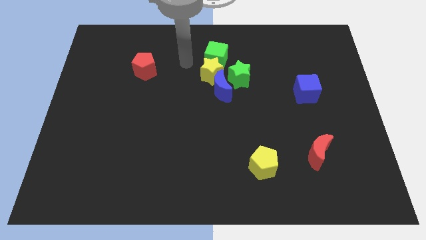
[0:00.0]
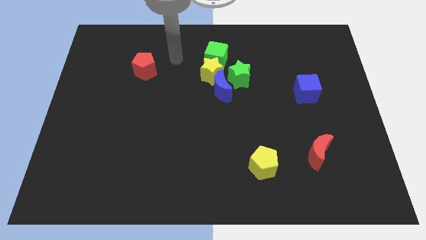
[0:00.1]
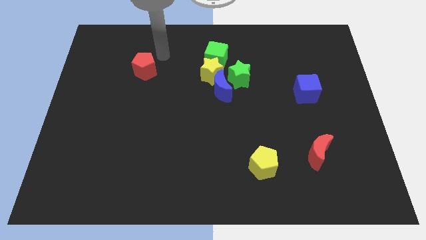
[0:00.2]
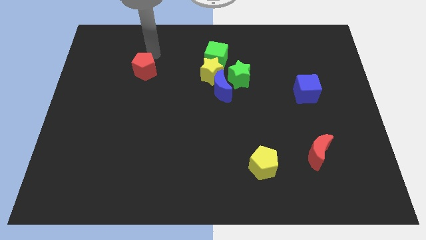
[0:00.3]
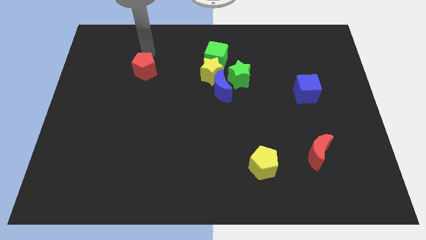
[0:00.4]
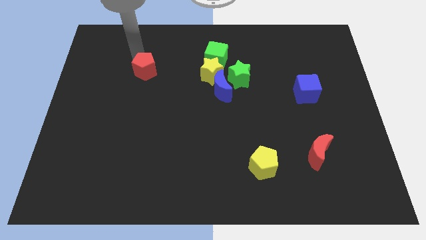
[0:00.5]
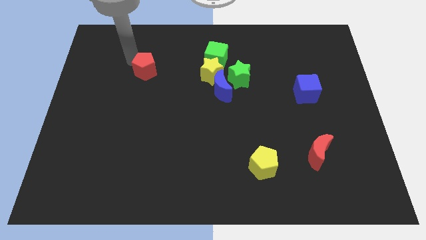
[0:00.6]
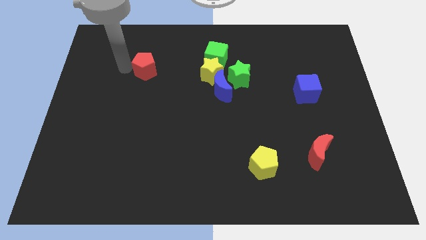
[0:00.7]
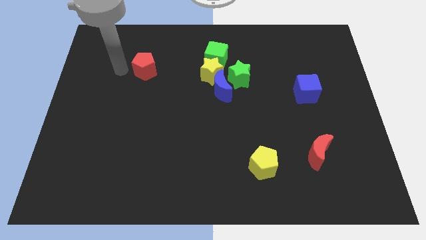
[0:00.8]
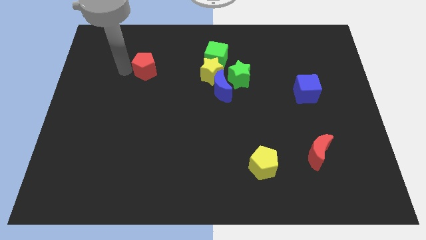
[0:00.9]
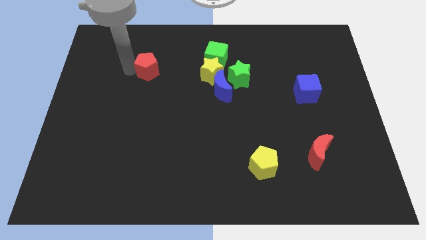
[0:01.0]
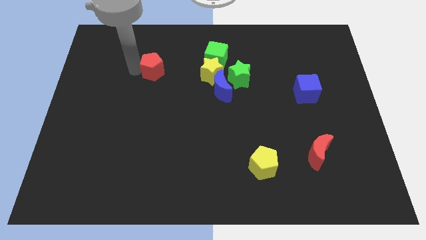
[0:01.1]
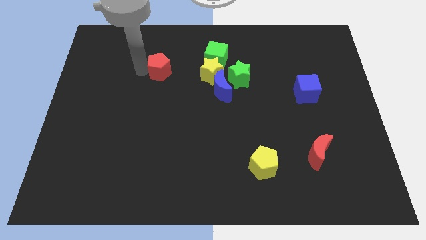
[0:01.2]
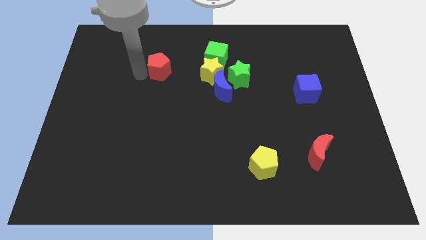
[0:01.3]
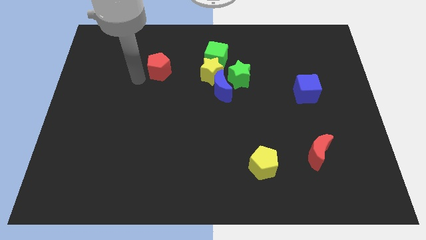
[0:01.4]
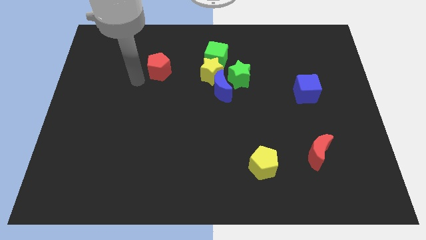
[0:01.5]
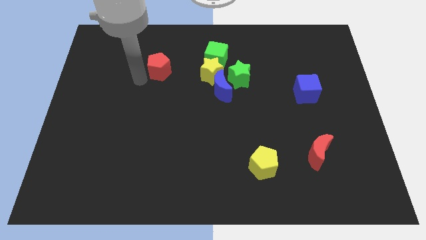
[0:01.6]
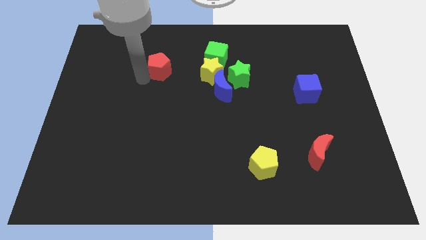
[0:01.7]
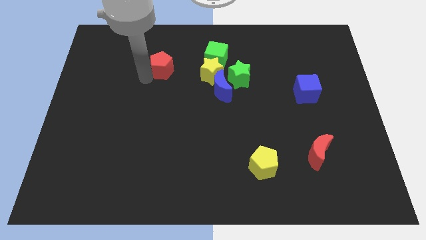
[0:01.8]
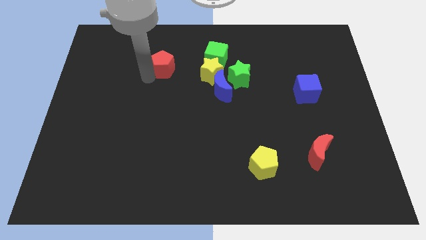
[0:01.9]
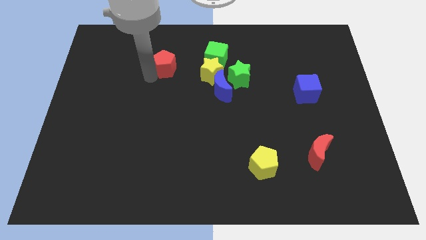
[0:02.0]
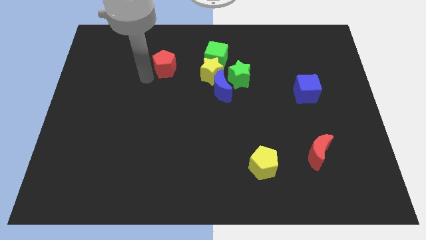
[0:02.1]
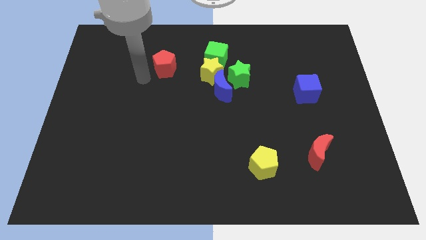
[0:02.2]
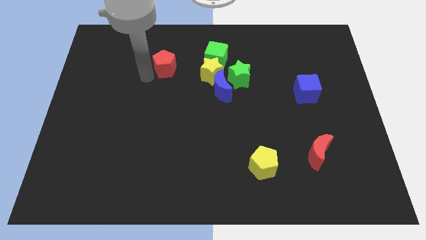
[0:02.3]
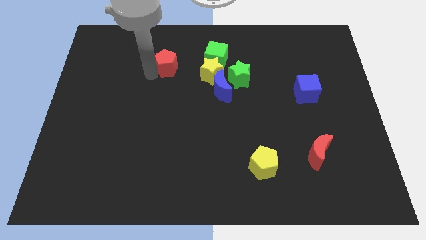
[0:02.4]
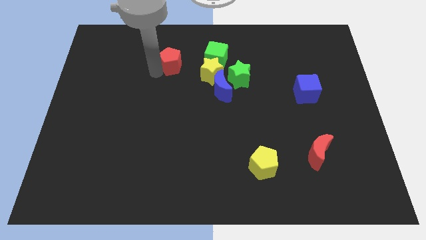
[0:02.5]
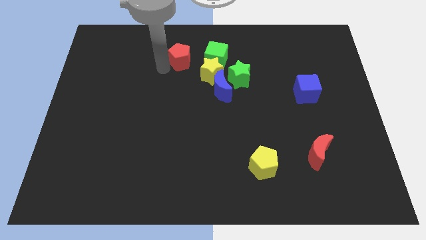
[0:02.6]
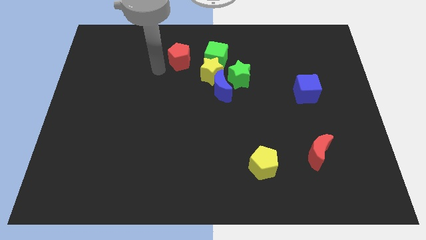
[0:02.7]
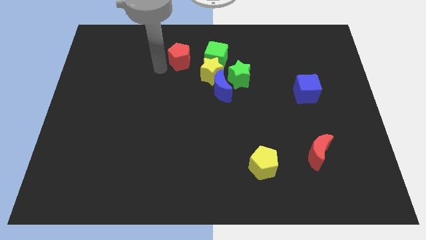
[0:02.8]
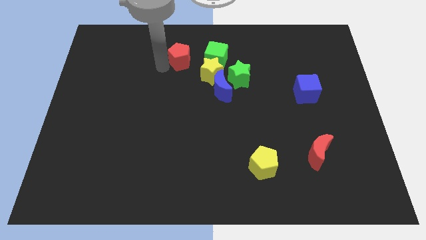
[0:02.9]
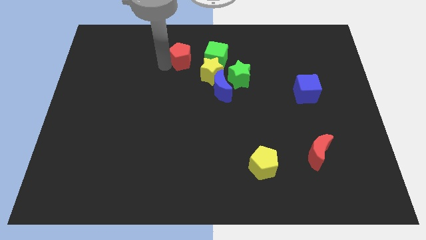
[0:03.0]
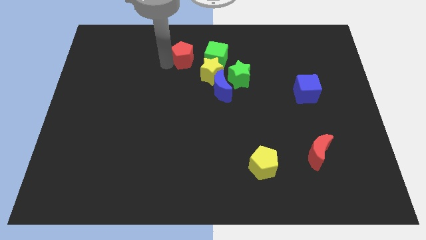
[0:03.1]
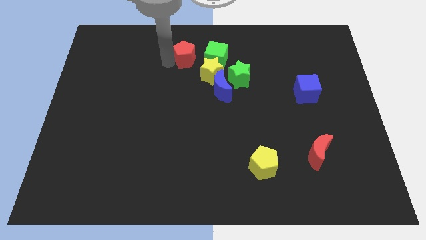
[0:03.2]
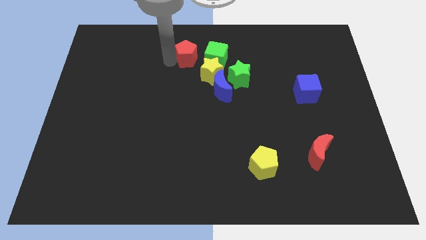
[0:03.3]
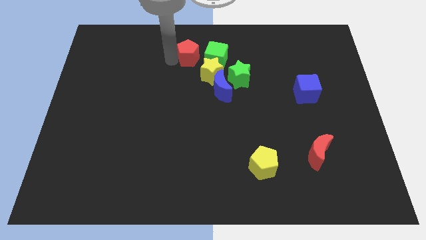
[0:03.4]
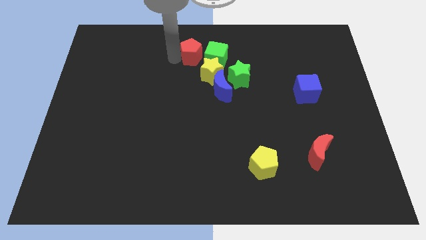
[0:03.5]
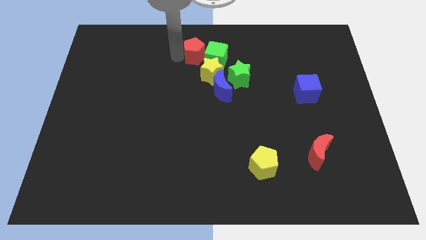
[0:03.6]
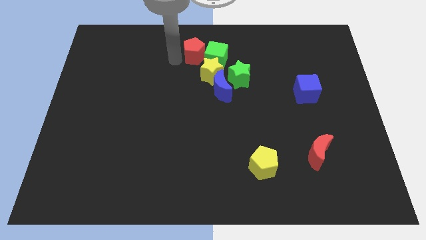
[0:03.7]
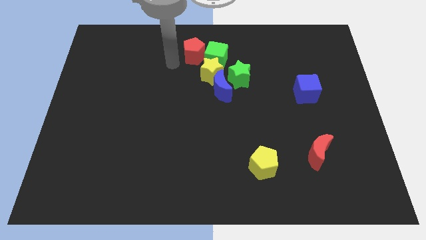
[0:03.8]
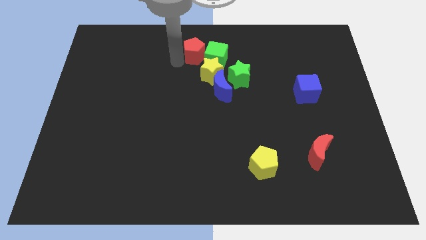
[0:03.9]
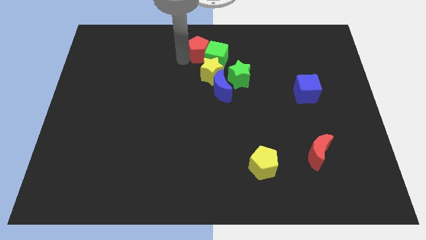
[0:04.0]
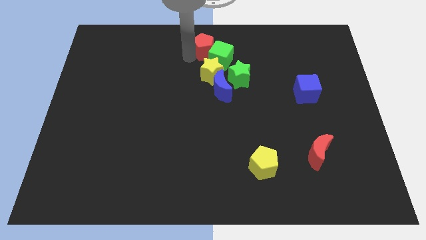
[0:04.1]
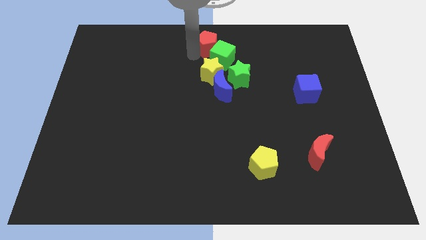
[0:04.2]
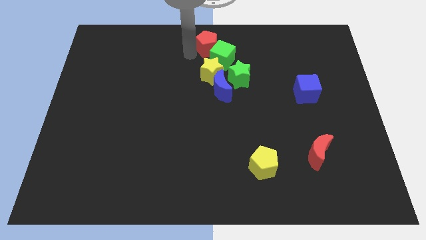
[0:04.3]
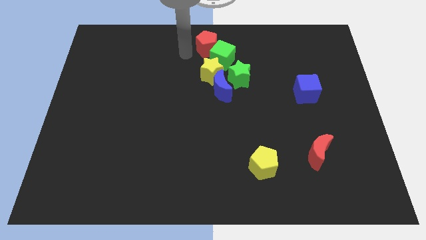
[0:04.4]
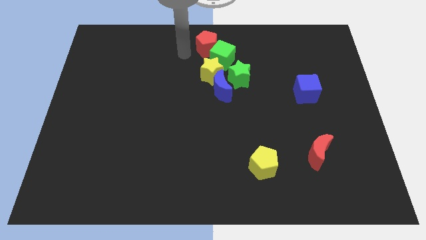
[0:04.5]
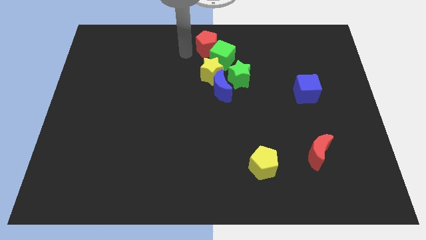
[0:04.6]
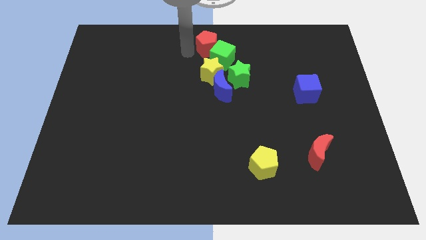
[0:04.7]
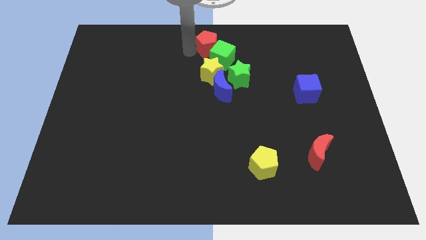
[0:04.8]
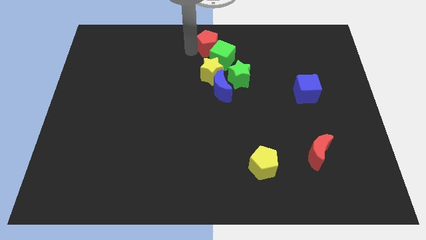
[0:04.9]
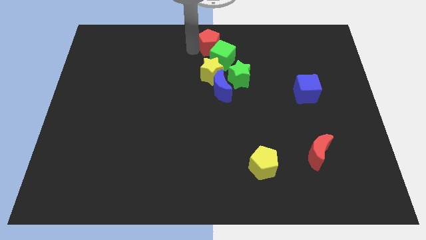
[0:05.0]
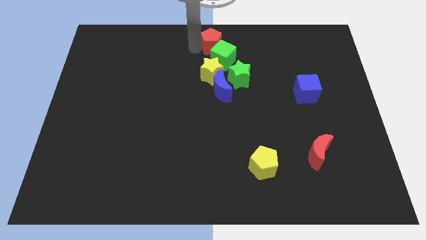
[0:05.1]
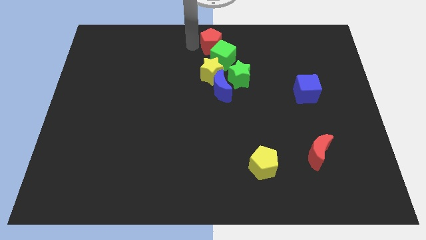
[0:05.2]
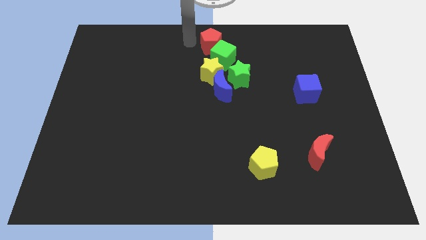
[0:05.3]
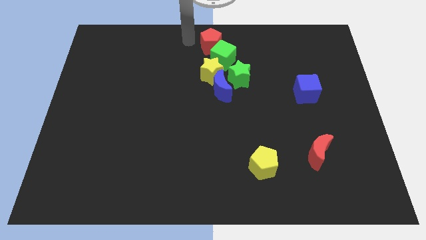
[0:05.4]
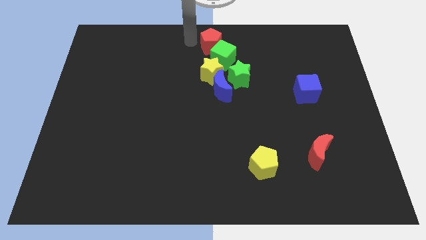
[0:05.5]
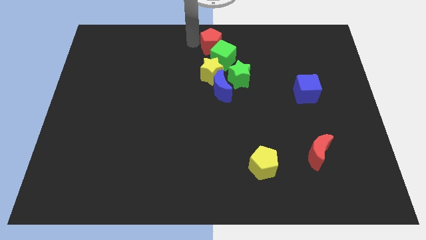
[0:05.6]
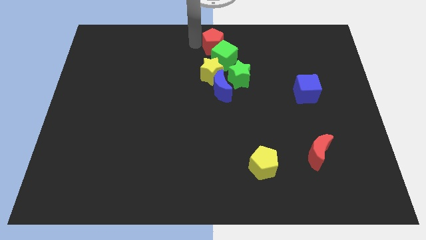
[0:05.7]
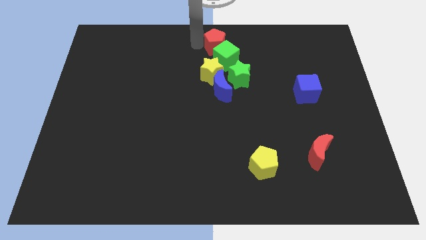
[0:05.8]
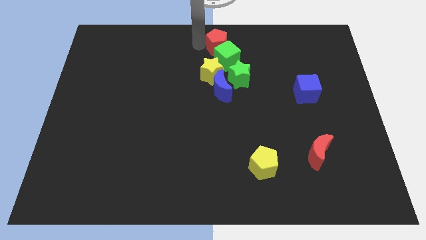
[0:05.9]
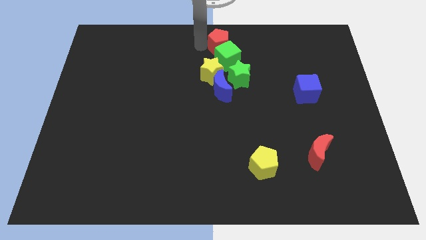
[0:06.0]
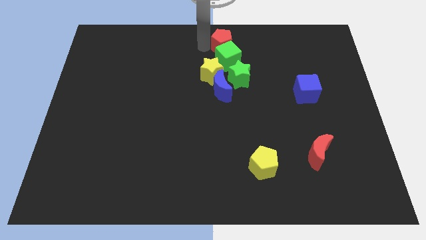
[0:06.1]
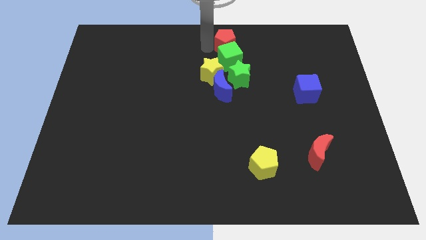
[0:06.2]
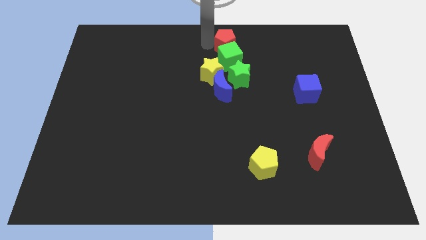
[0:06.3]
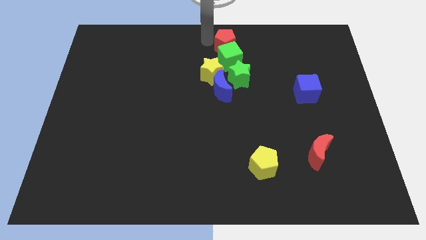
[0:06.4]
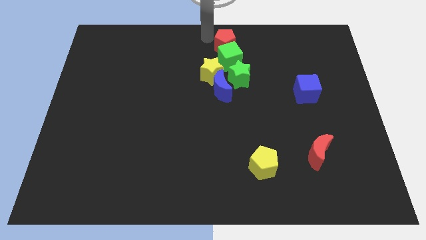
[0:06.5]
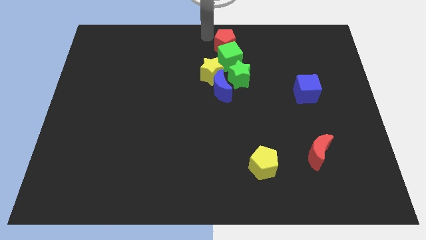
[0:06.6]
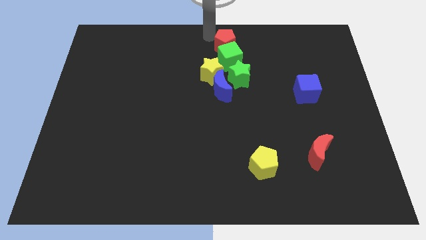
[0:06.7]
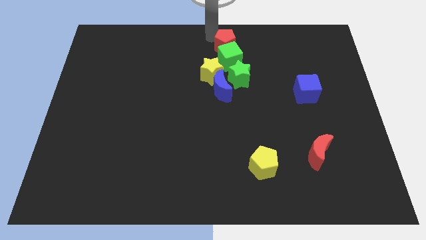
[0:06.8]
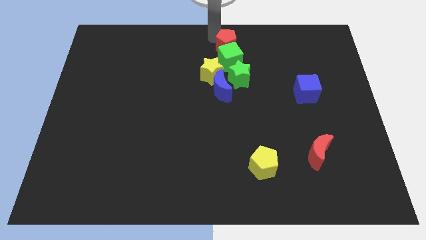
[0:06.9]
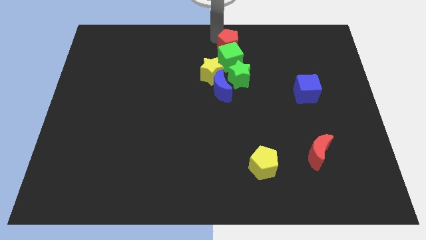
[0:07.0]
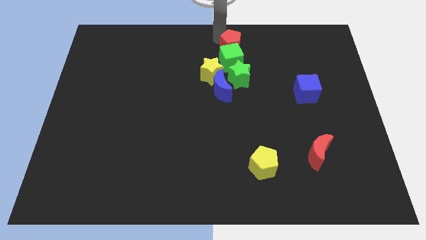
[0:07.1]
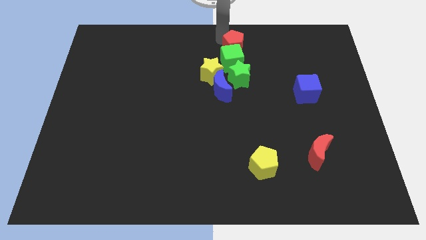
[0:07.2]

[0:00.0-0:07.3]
move the red pentagon to the right

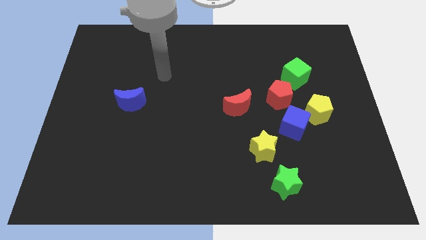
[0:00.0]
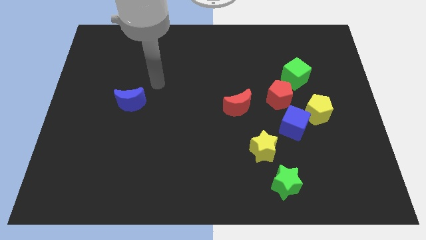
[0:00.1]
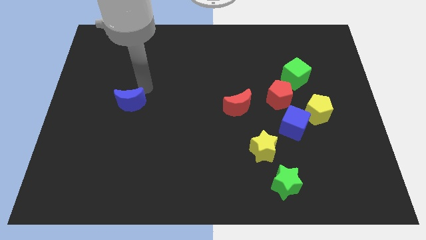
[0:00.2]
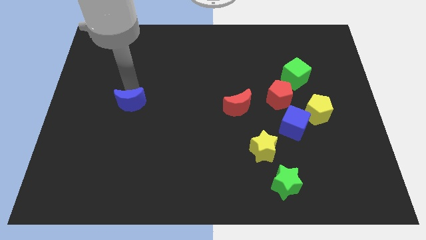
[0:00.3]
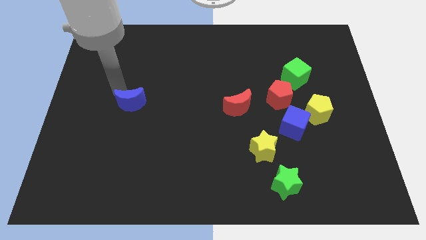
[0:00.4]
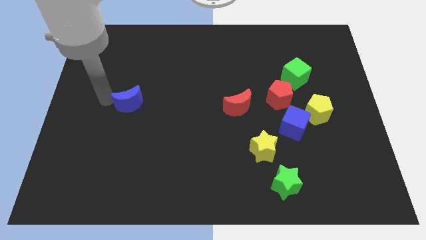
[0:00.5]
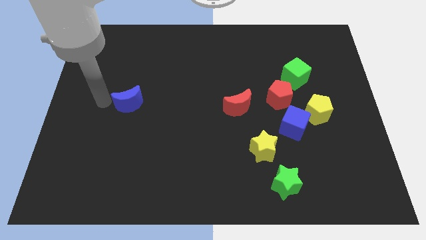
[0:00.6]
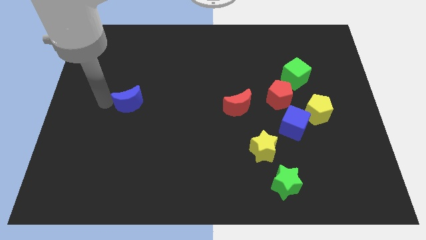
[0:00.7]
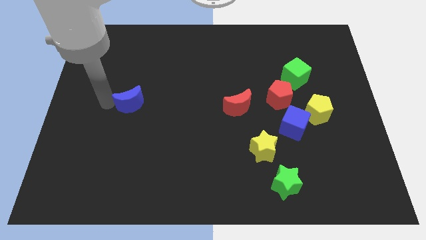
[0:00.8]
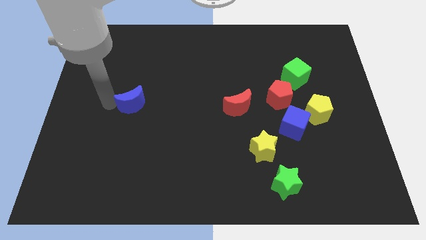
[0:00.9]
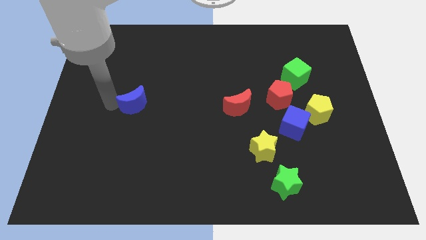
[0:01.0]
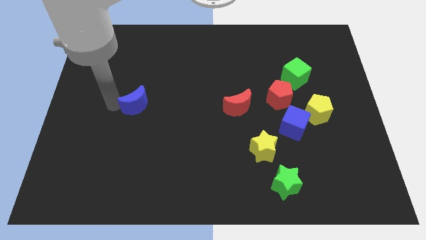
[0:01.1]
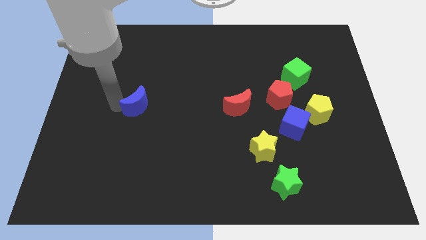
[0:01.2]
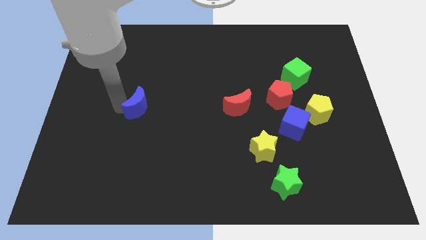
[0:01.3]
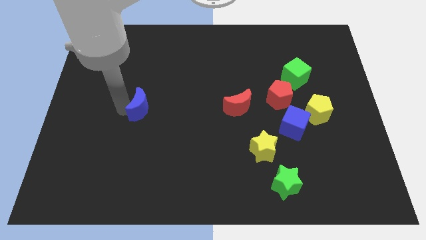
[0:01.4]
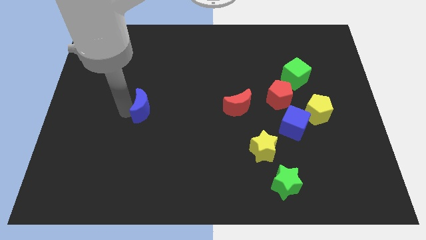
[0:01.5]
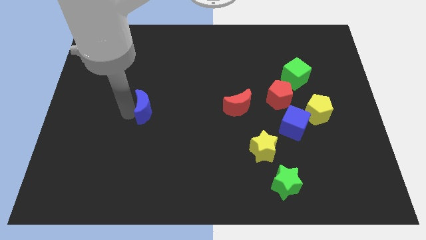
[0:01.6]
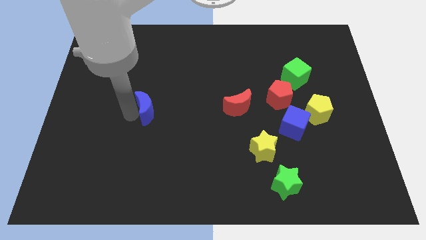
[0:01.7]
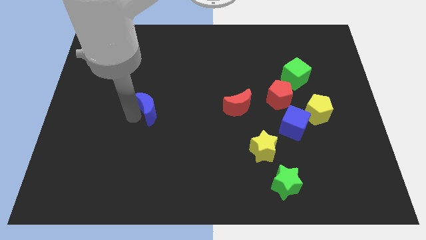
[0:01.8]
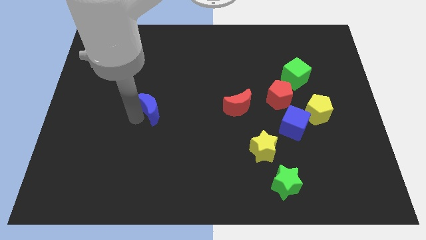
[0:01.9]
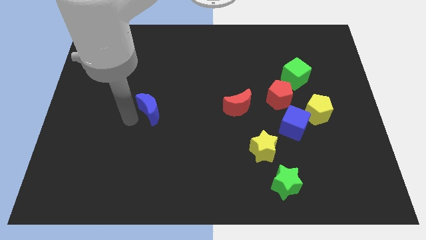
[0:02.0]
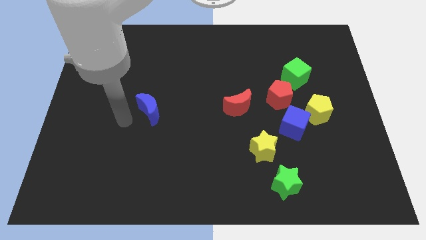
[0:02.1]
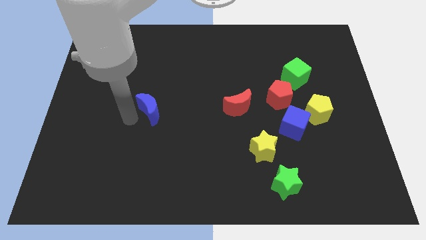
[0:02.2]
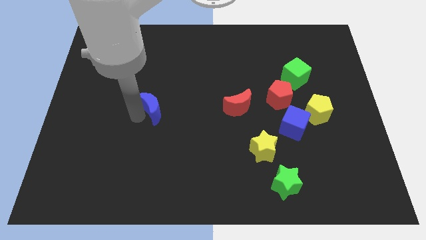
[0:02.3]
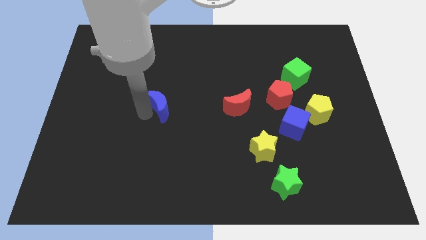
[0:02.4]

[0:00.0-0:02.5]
move the blue moon a bit right
